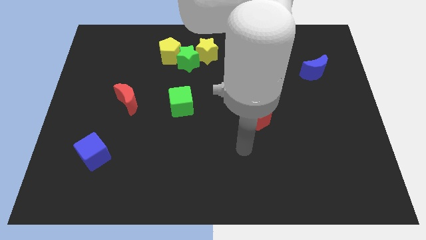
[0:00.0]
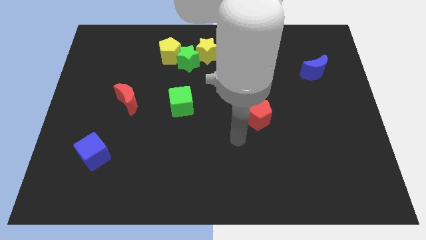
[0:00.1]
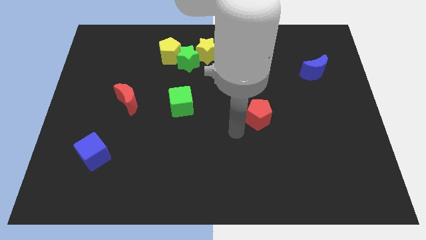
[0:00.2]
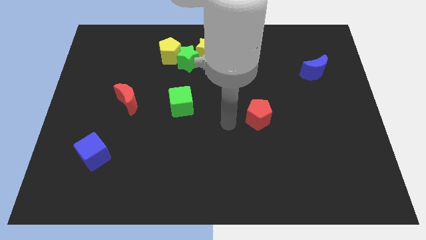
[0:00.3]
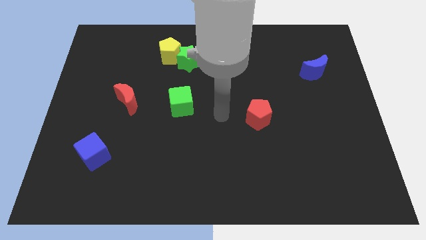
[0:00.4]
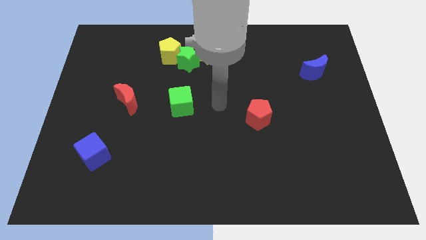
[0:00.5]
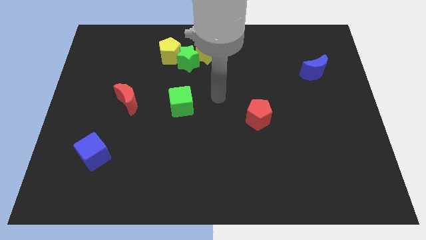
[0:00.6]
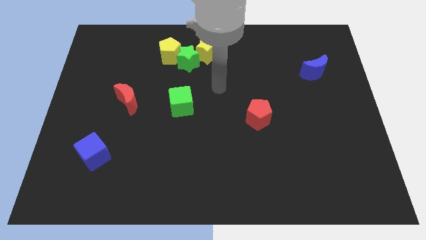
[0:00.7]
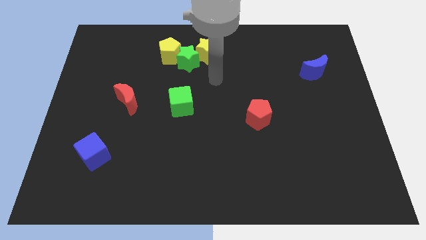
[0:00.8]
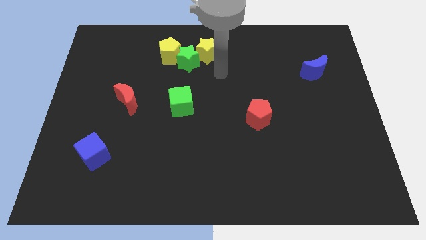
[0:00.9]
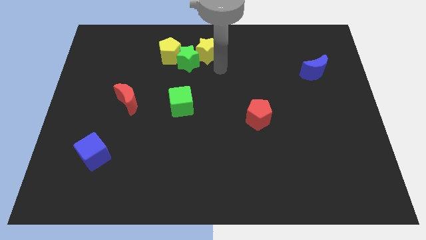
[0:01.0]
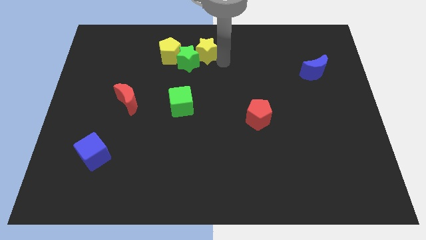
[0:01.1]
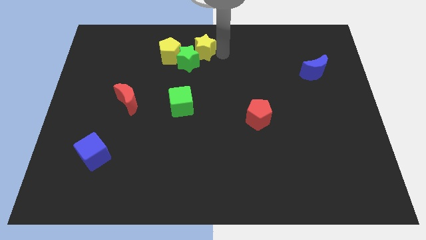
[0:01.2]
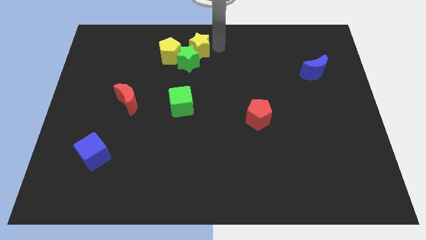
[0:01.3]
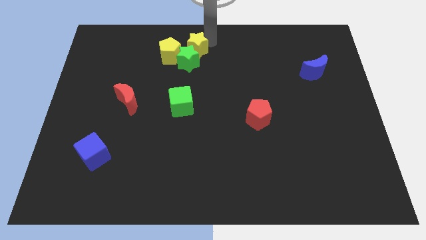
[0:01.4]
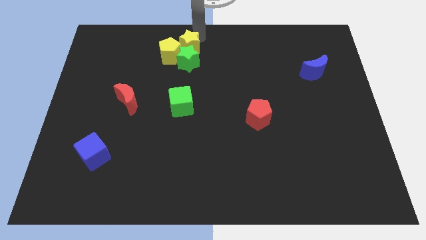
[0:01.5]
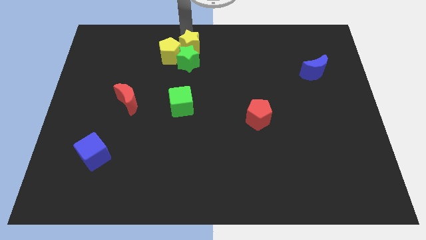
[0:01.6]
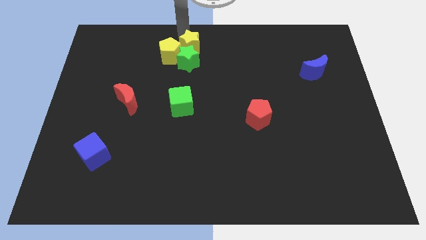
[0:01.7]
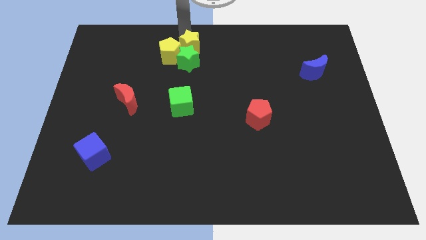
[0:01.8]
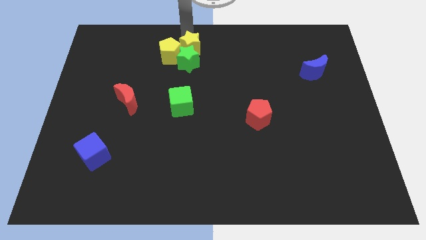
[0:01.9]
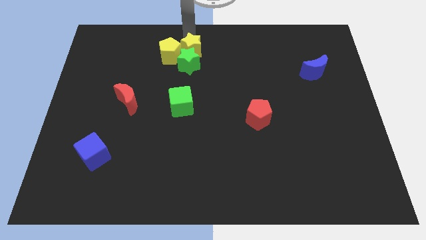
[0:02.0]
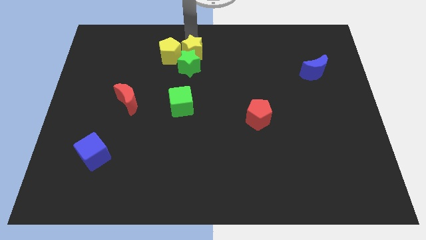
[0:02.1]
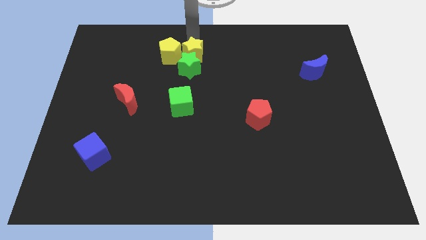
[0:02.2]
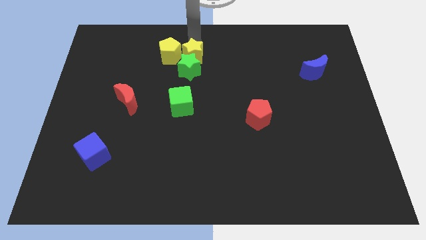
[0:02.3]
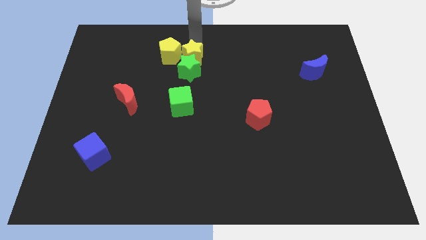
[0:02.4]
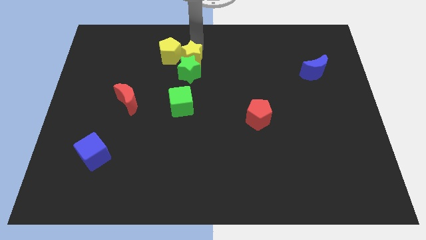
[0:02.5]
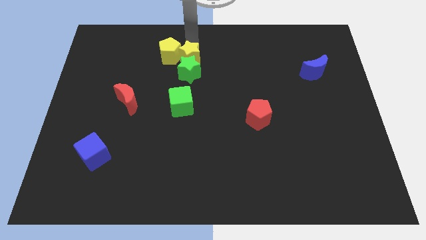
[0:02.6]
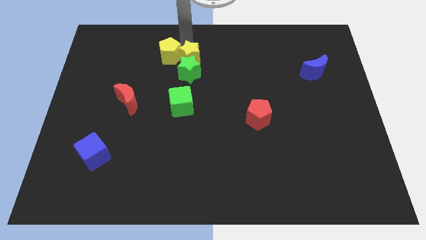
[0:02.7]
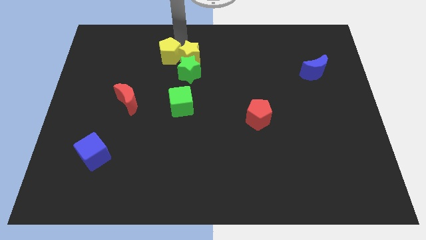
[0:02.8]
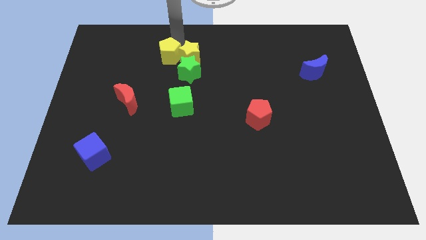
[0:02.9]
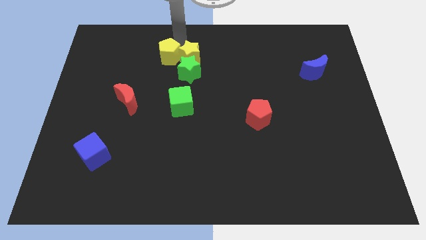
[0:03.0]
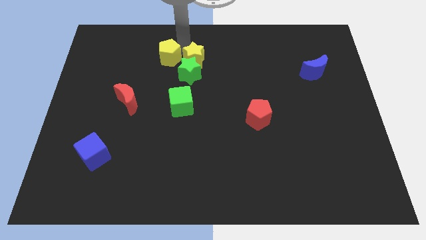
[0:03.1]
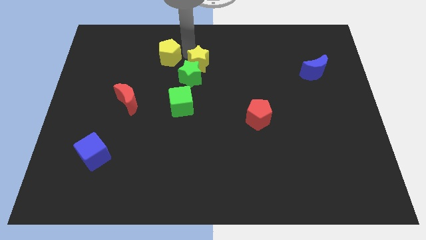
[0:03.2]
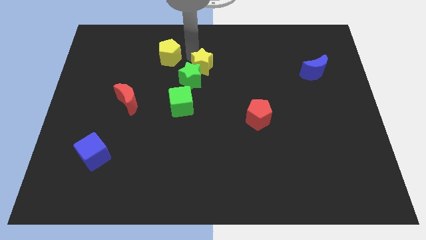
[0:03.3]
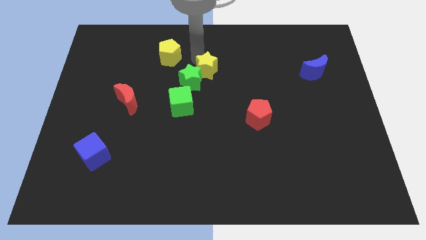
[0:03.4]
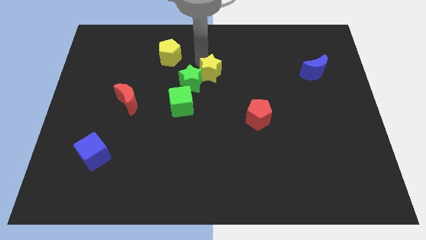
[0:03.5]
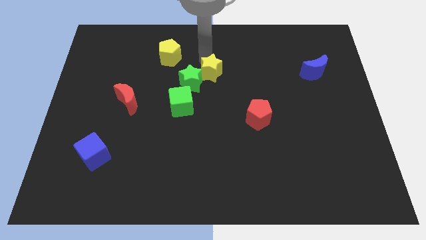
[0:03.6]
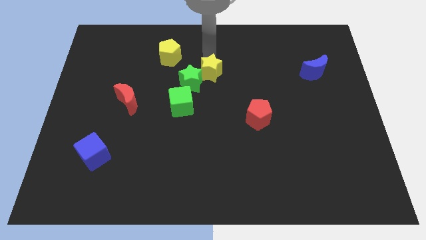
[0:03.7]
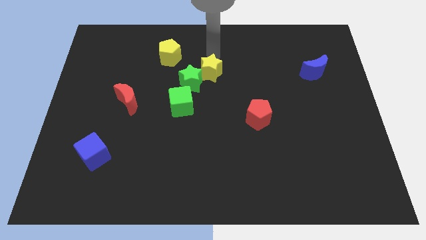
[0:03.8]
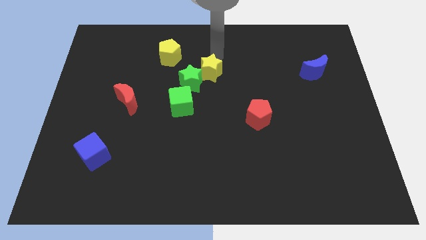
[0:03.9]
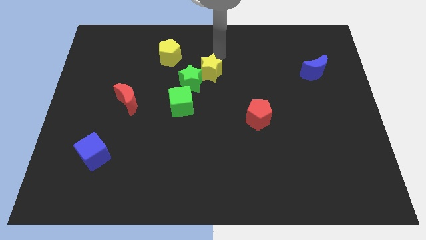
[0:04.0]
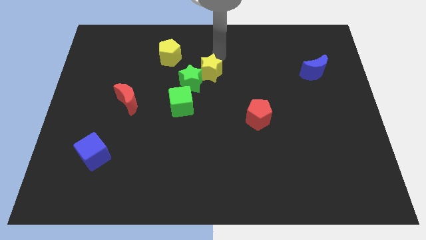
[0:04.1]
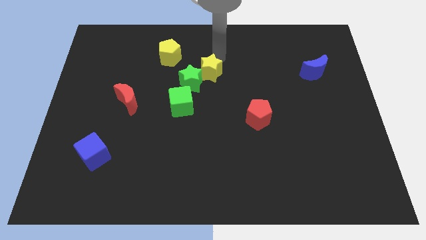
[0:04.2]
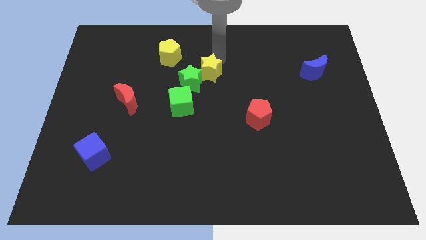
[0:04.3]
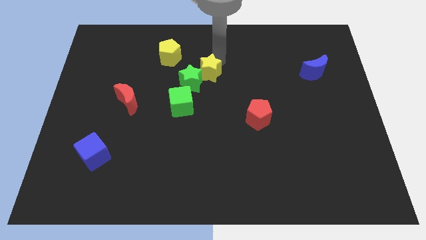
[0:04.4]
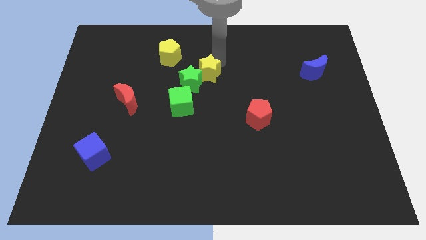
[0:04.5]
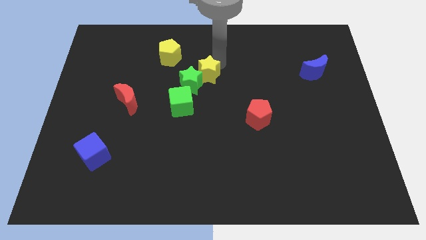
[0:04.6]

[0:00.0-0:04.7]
slide the yellow star down a little

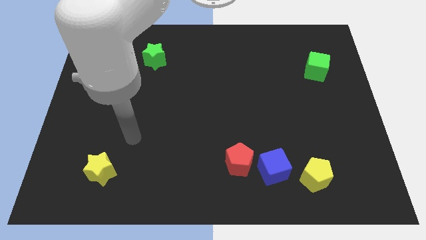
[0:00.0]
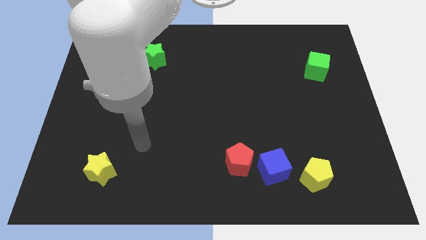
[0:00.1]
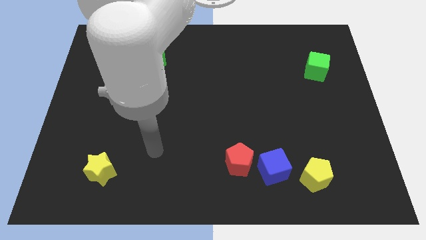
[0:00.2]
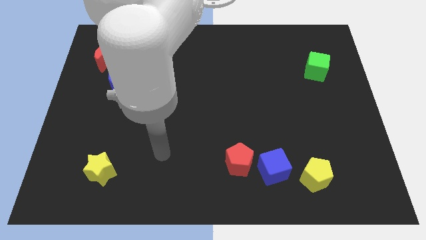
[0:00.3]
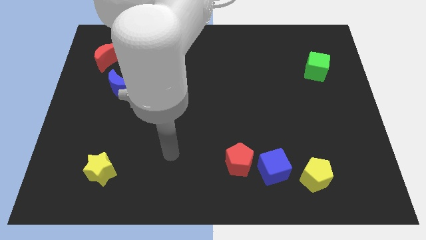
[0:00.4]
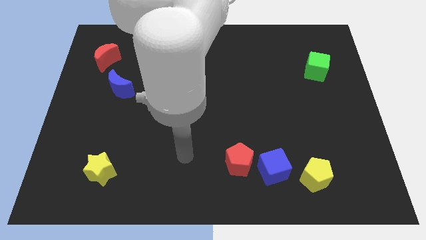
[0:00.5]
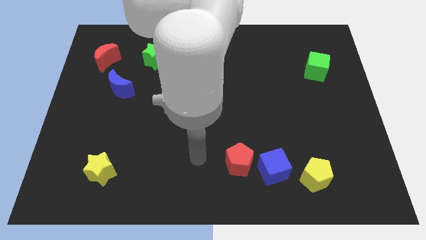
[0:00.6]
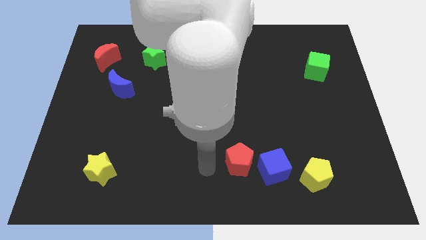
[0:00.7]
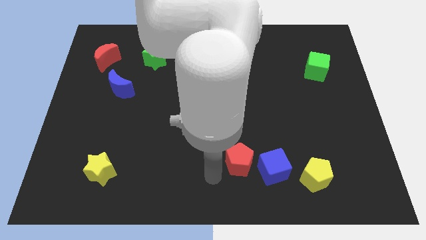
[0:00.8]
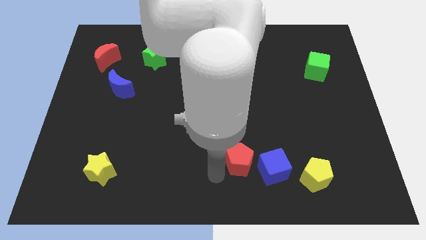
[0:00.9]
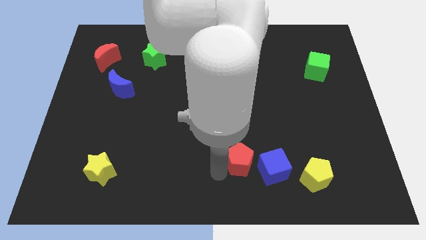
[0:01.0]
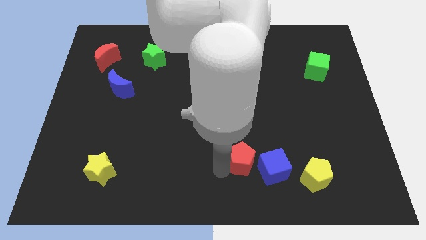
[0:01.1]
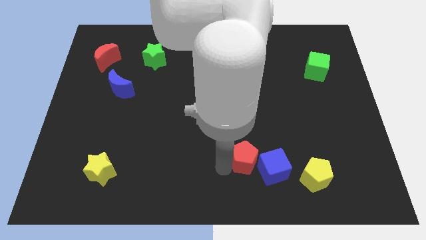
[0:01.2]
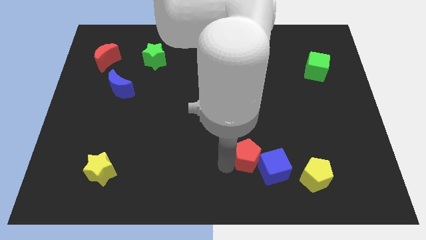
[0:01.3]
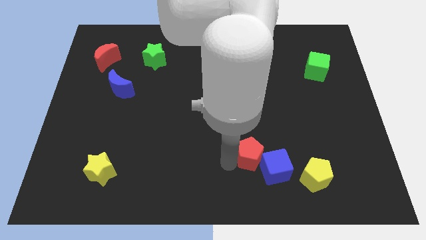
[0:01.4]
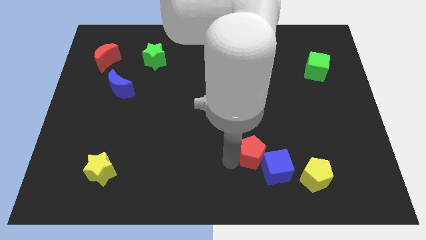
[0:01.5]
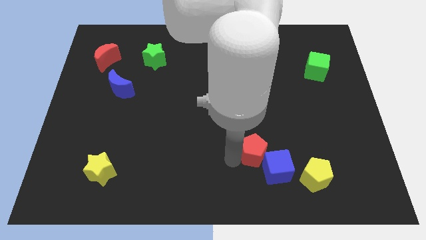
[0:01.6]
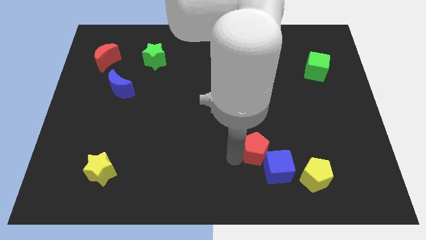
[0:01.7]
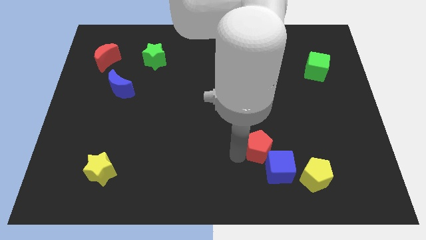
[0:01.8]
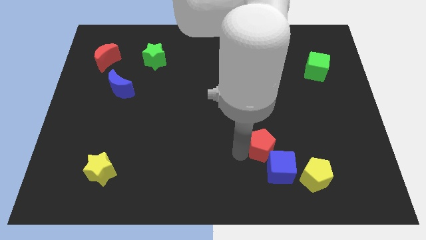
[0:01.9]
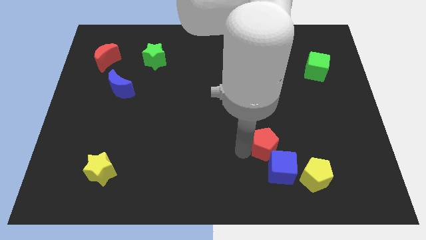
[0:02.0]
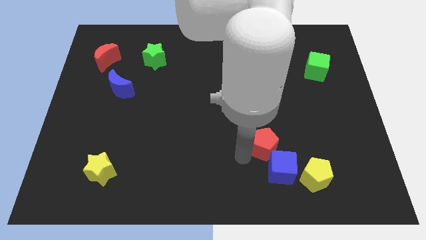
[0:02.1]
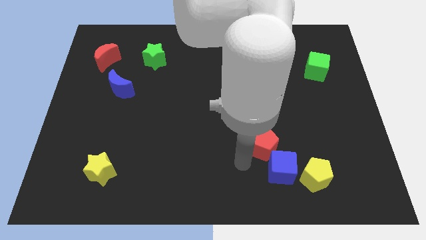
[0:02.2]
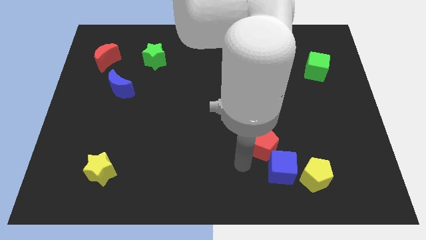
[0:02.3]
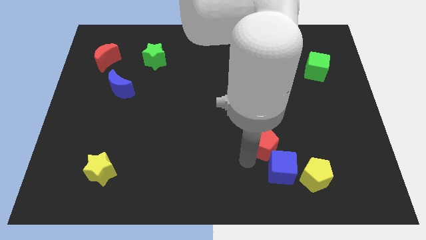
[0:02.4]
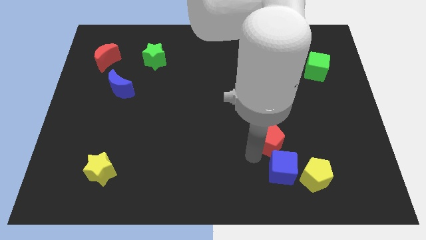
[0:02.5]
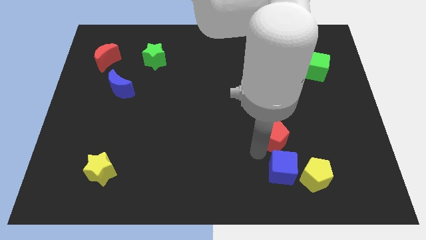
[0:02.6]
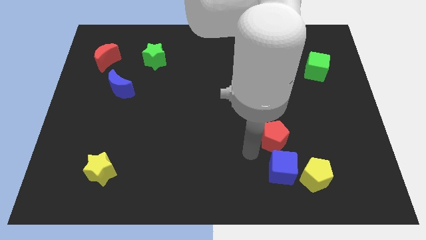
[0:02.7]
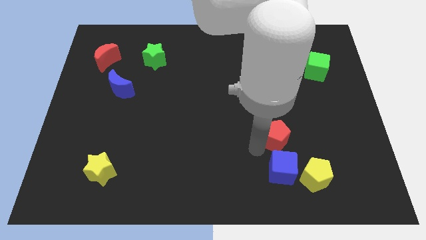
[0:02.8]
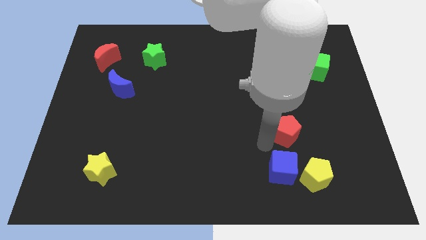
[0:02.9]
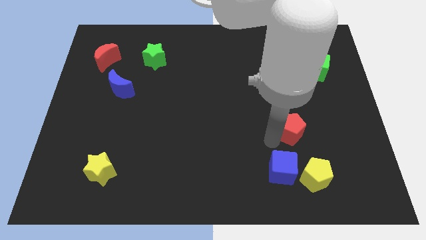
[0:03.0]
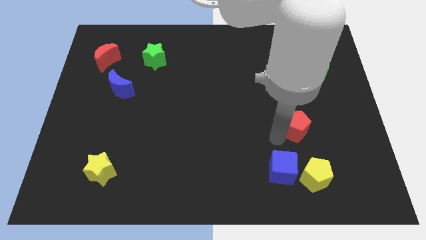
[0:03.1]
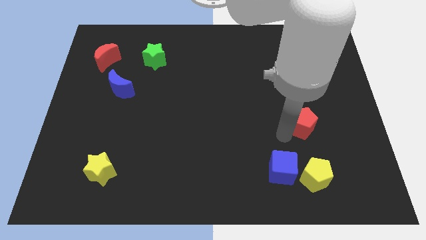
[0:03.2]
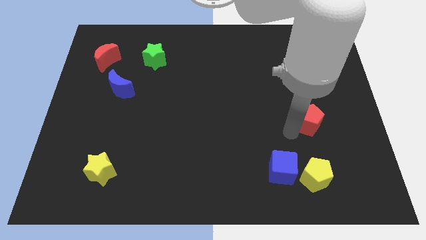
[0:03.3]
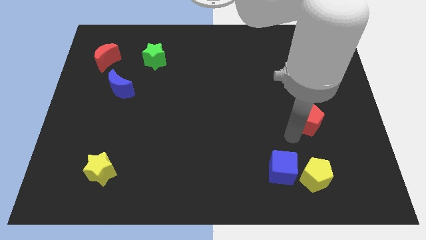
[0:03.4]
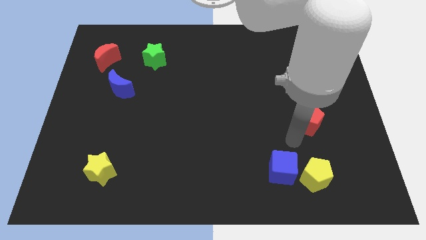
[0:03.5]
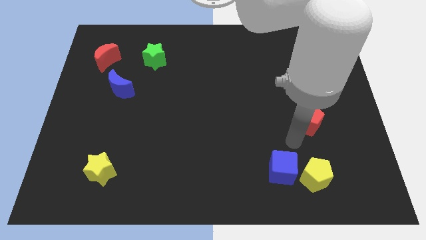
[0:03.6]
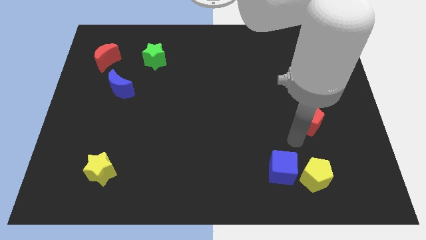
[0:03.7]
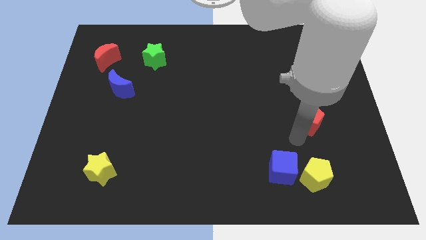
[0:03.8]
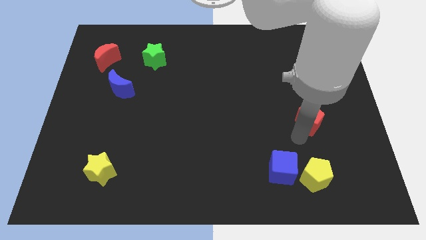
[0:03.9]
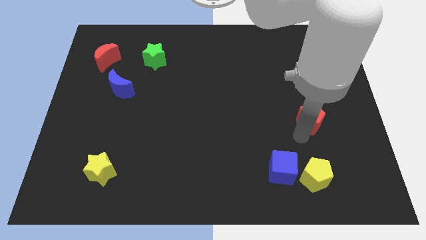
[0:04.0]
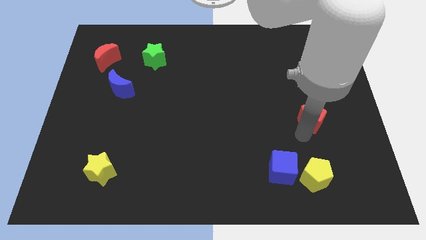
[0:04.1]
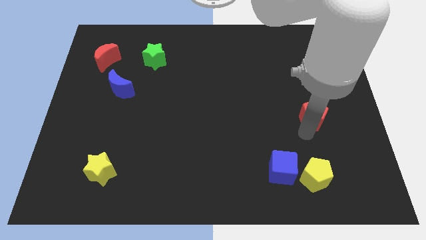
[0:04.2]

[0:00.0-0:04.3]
push the red pentagon up and then to the right
